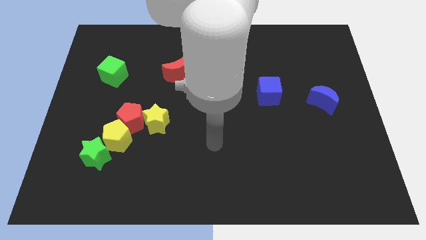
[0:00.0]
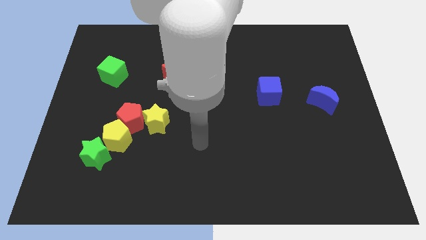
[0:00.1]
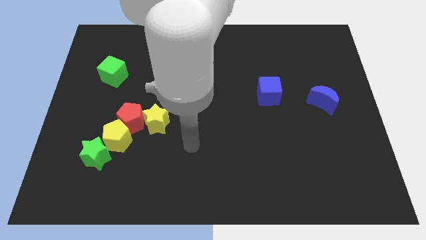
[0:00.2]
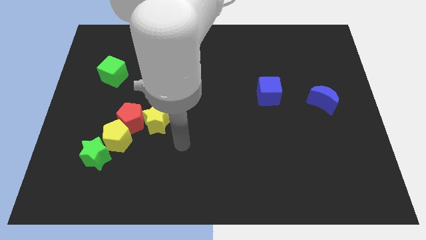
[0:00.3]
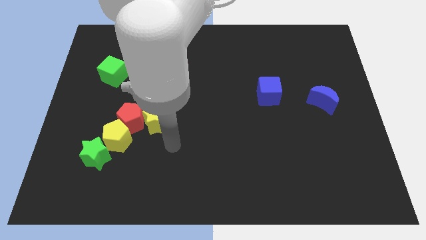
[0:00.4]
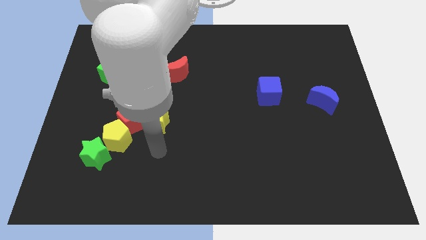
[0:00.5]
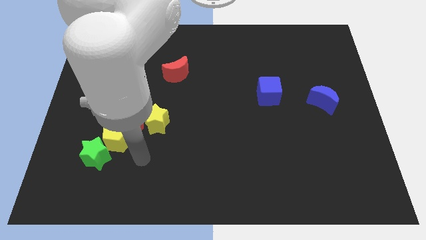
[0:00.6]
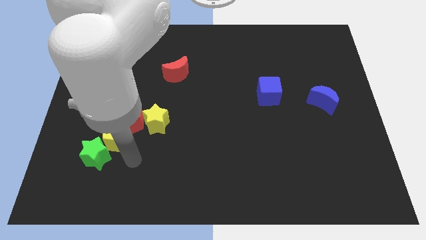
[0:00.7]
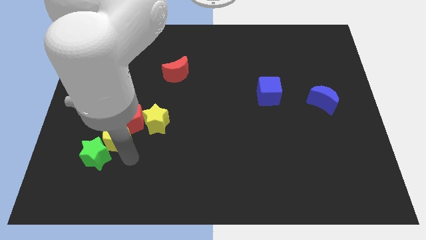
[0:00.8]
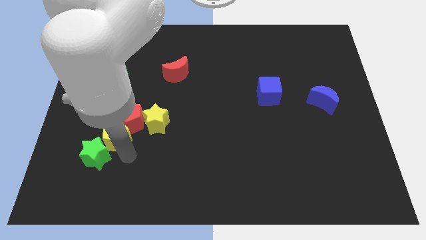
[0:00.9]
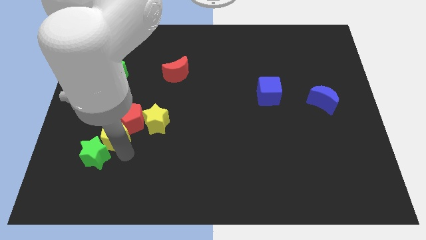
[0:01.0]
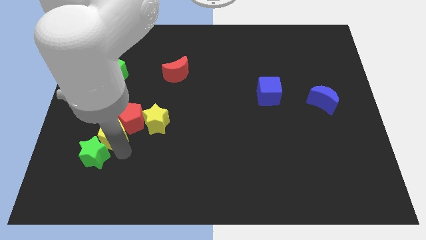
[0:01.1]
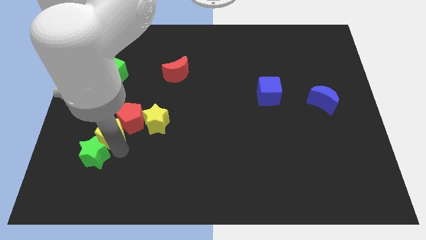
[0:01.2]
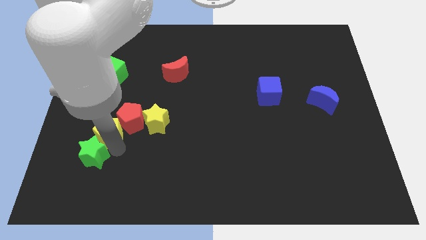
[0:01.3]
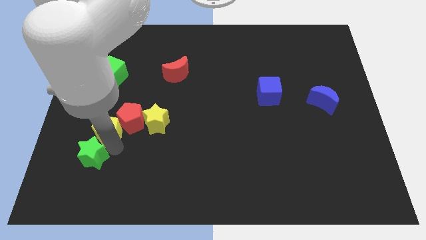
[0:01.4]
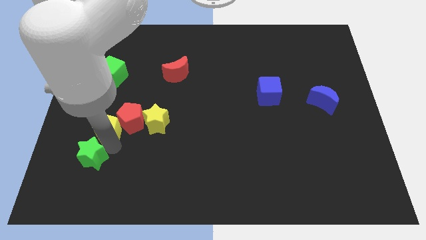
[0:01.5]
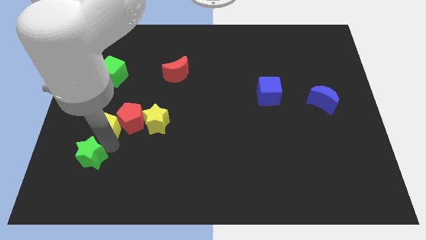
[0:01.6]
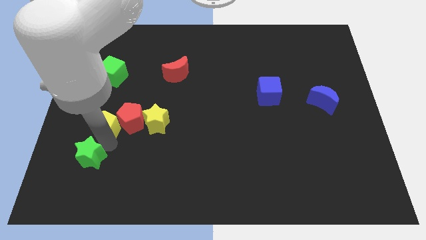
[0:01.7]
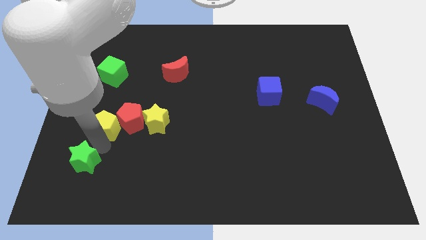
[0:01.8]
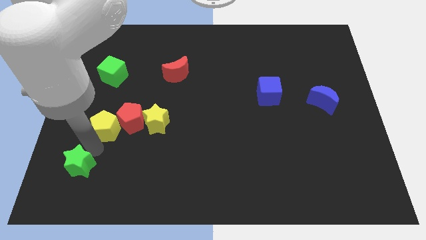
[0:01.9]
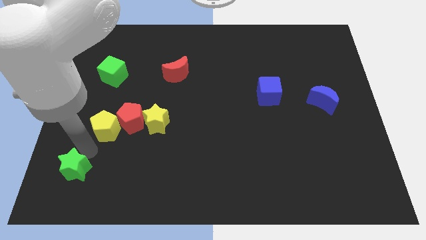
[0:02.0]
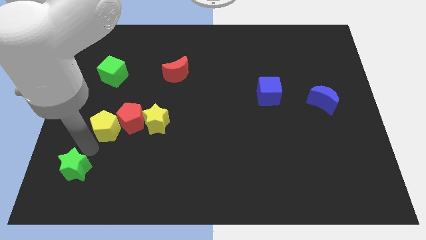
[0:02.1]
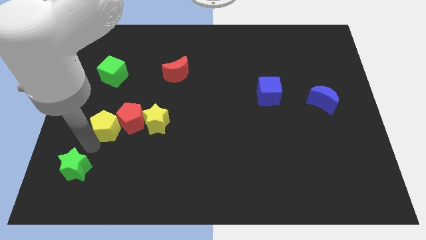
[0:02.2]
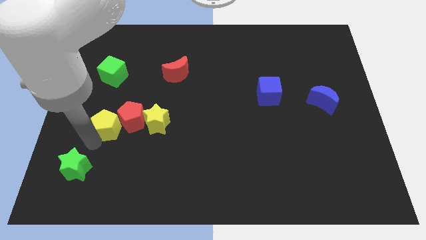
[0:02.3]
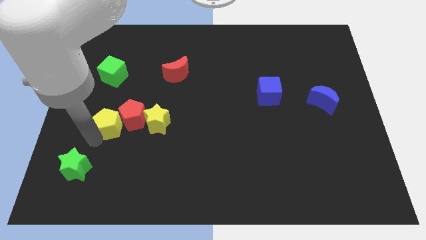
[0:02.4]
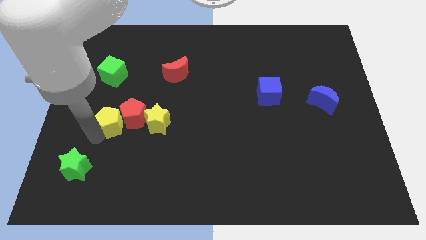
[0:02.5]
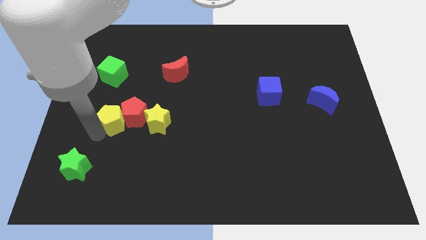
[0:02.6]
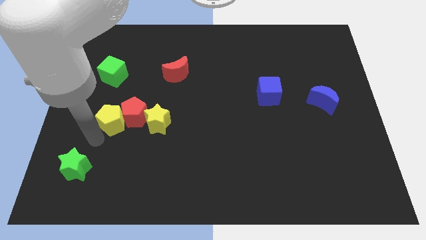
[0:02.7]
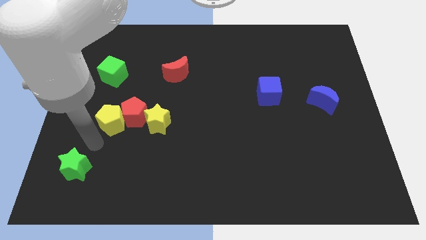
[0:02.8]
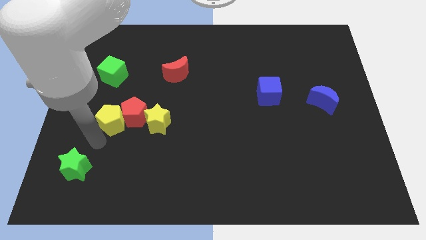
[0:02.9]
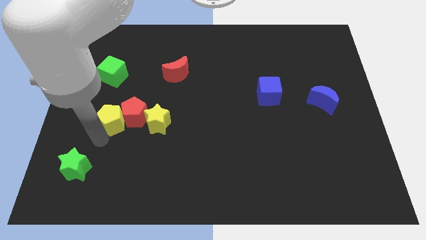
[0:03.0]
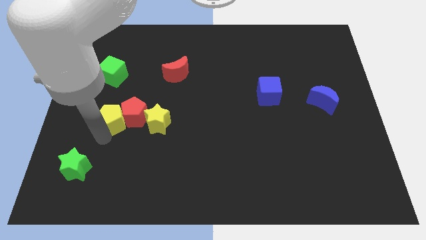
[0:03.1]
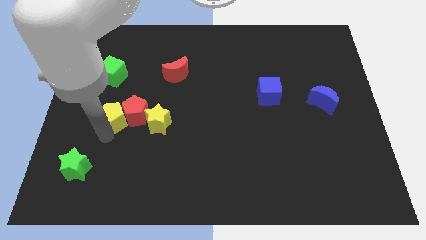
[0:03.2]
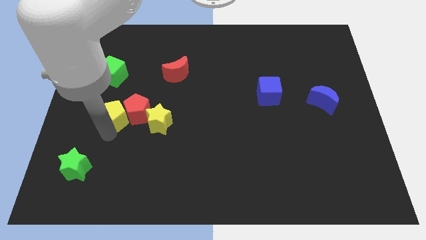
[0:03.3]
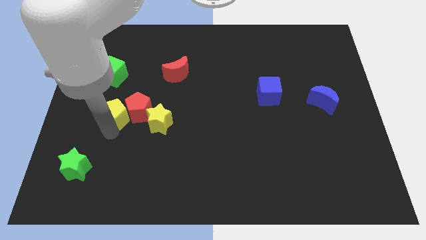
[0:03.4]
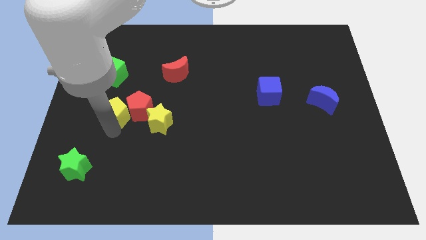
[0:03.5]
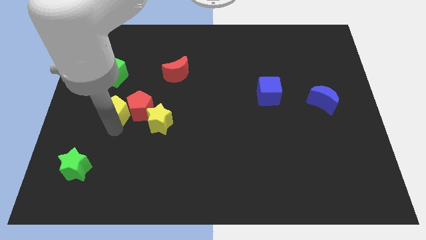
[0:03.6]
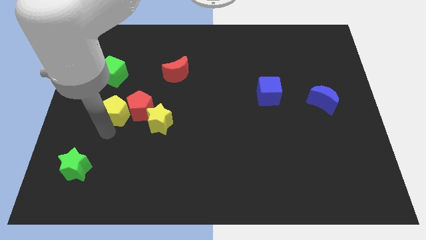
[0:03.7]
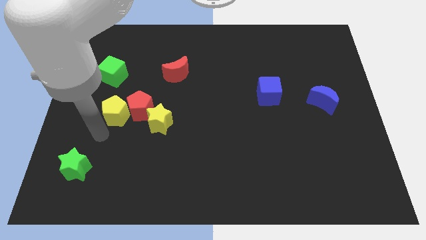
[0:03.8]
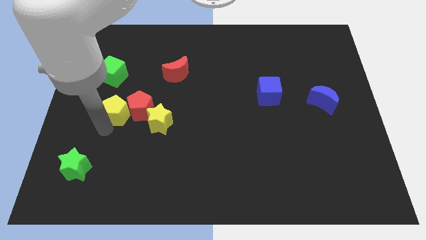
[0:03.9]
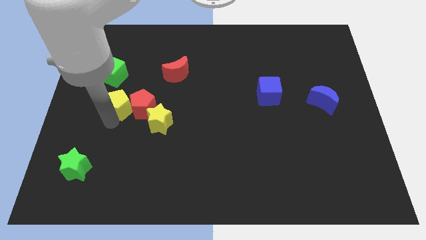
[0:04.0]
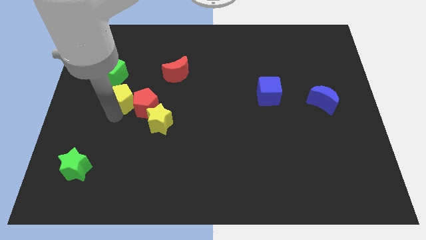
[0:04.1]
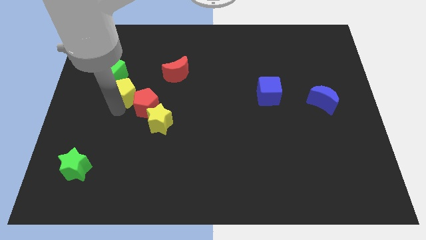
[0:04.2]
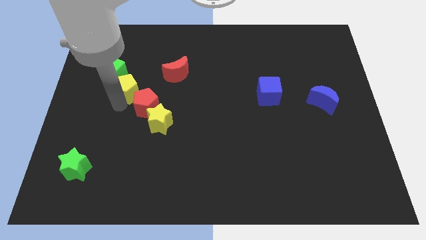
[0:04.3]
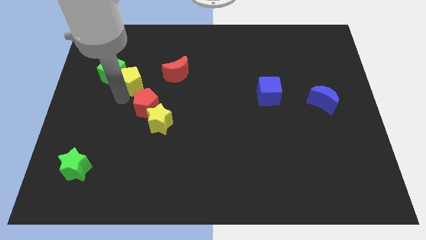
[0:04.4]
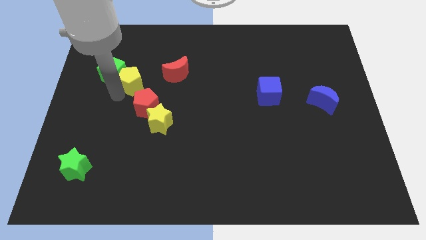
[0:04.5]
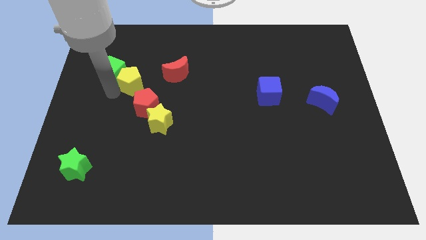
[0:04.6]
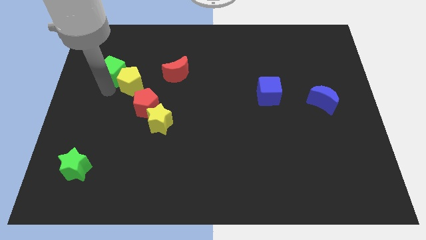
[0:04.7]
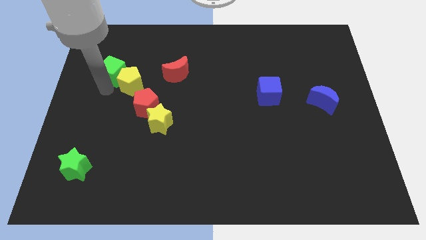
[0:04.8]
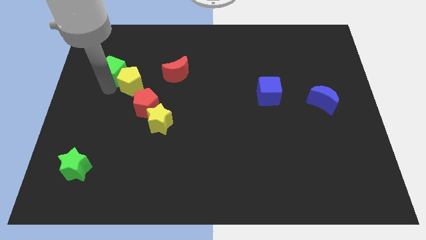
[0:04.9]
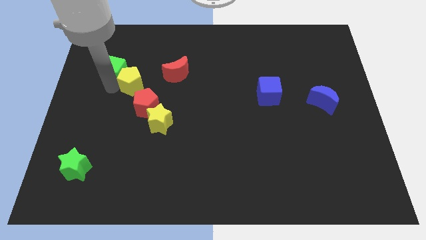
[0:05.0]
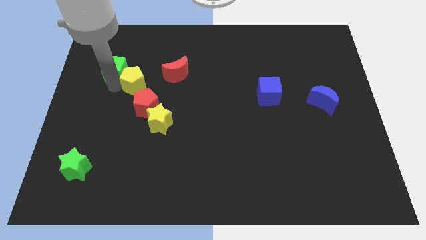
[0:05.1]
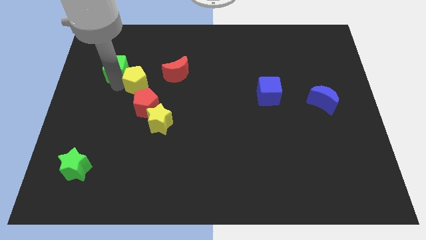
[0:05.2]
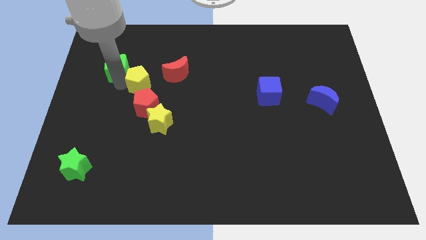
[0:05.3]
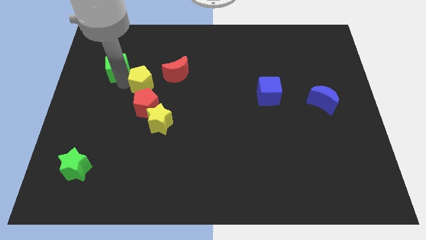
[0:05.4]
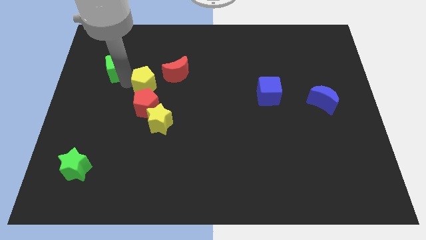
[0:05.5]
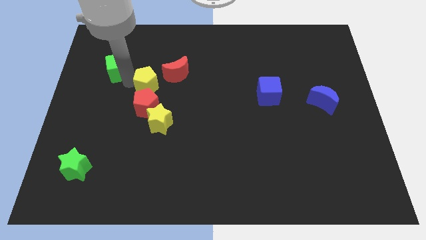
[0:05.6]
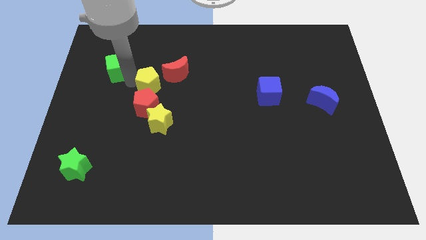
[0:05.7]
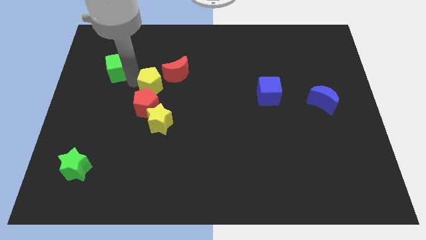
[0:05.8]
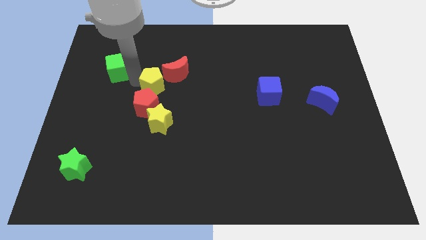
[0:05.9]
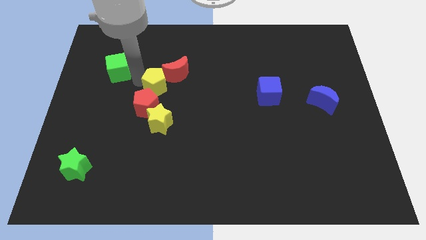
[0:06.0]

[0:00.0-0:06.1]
move the yellow pentagon next to the red moon

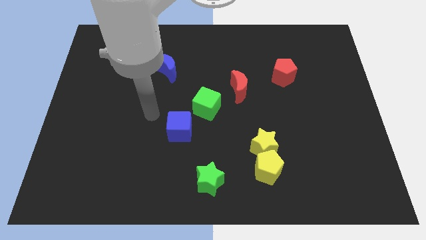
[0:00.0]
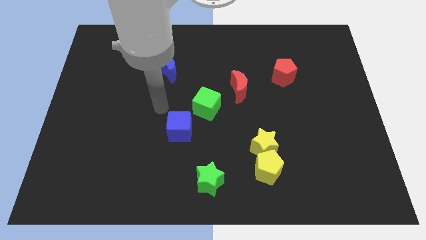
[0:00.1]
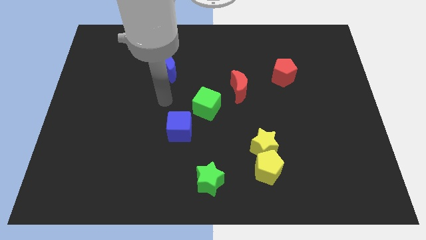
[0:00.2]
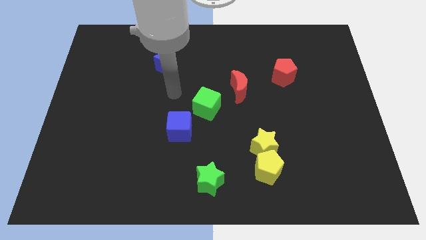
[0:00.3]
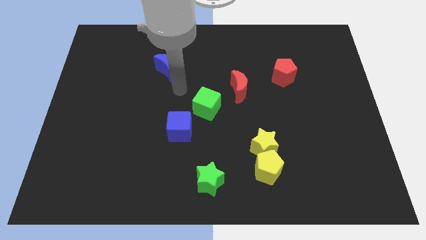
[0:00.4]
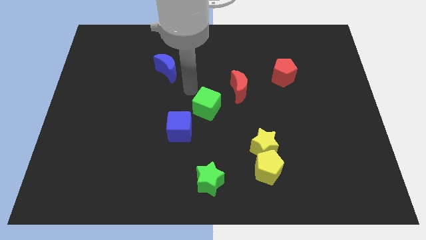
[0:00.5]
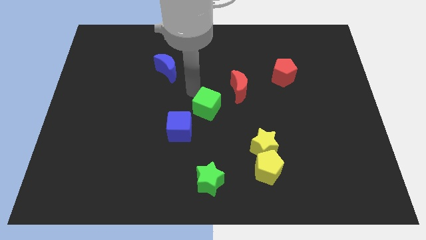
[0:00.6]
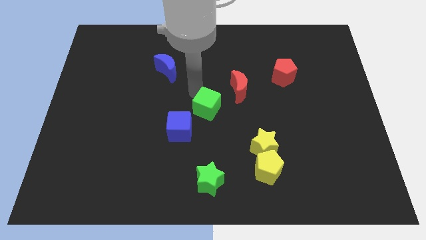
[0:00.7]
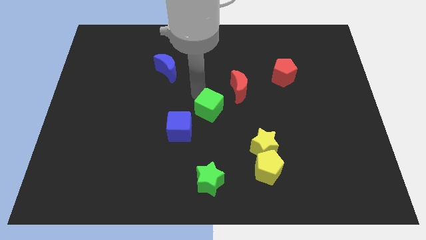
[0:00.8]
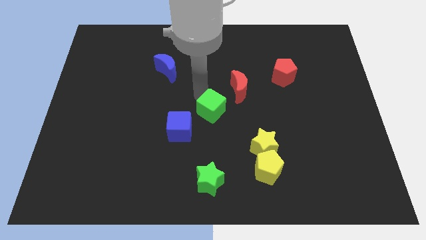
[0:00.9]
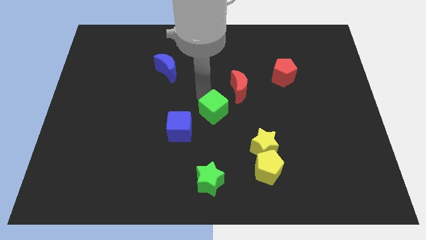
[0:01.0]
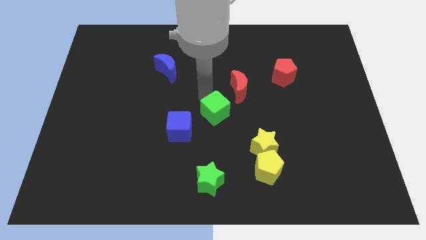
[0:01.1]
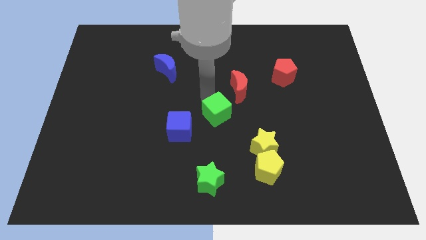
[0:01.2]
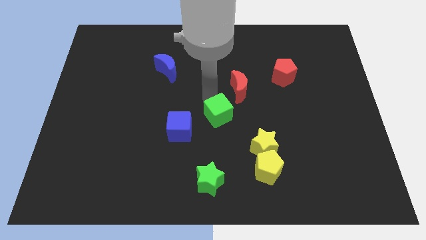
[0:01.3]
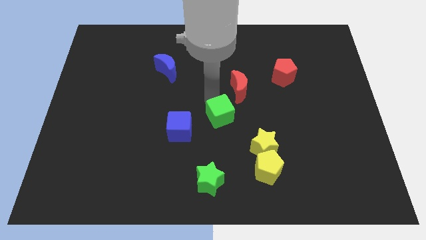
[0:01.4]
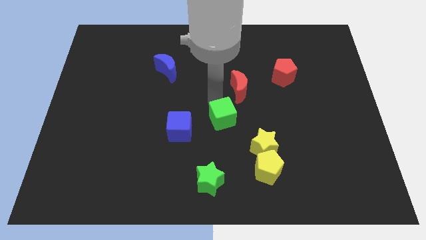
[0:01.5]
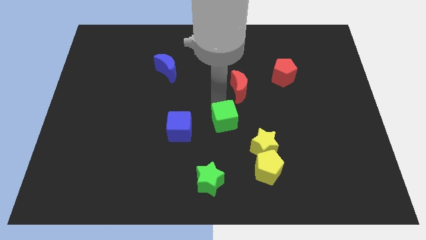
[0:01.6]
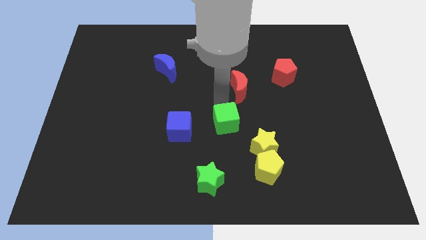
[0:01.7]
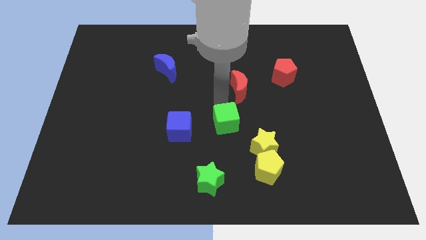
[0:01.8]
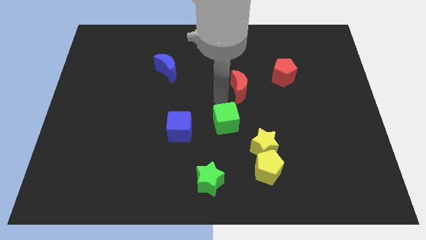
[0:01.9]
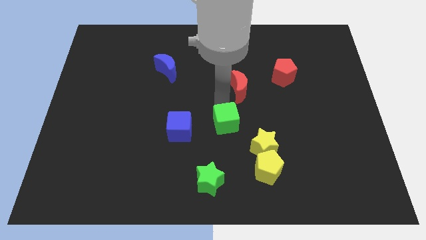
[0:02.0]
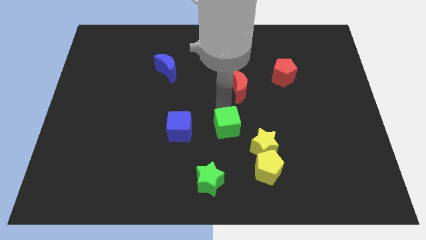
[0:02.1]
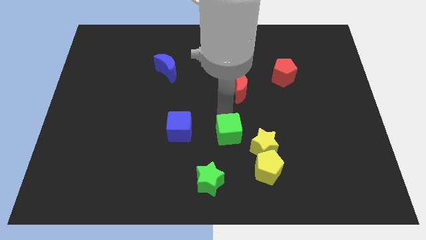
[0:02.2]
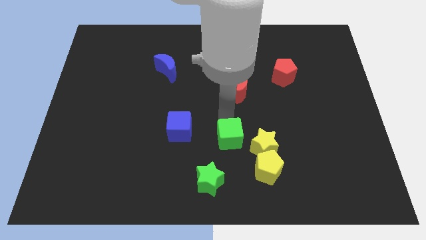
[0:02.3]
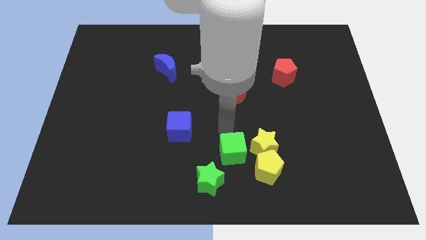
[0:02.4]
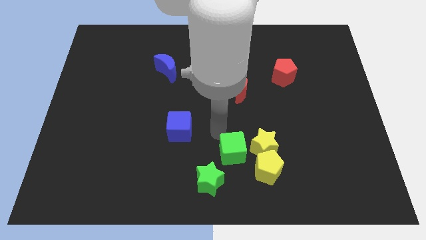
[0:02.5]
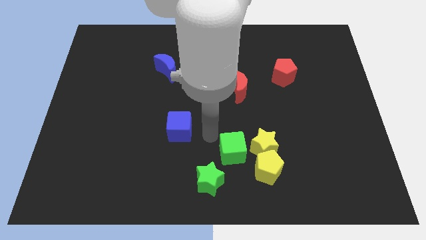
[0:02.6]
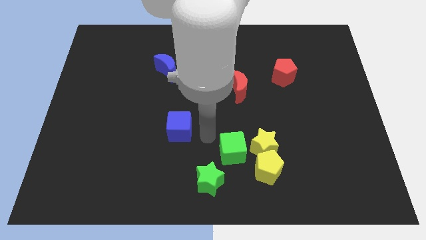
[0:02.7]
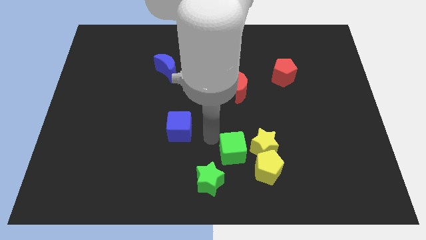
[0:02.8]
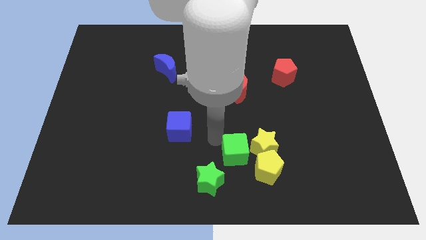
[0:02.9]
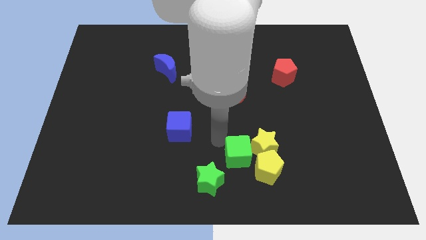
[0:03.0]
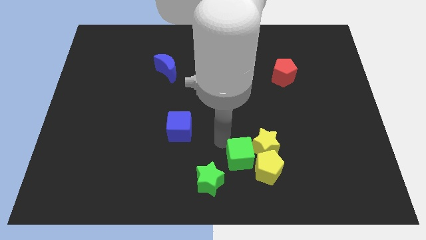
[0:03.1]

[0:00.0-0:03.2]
slide the green cube next to the yellow pentagon
